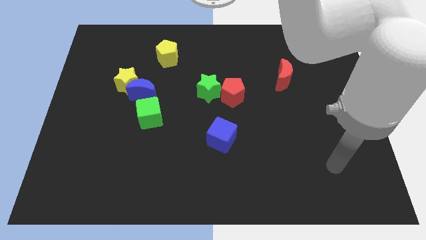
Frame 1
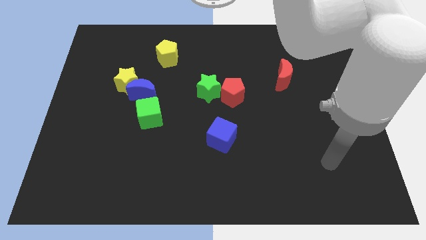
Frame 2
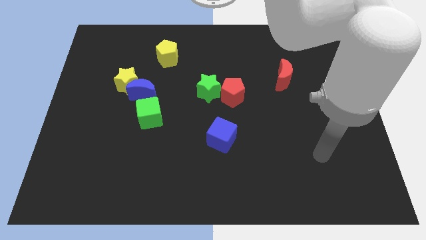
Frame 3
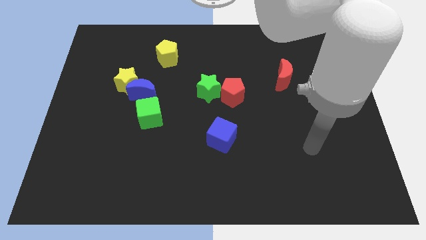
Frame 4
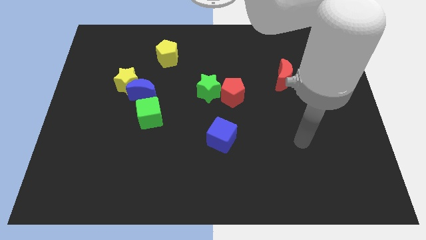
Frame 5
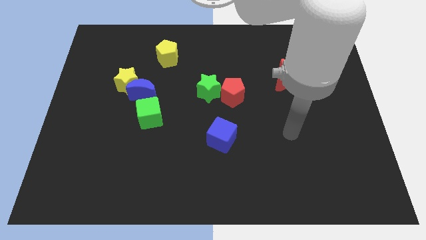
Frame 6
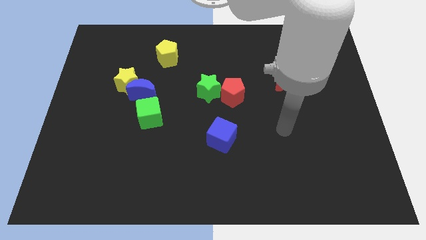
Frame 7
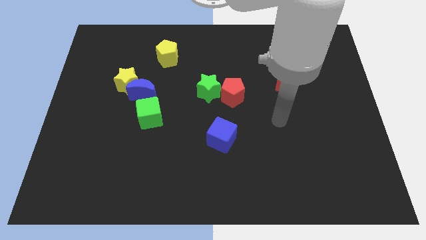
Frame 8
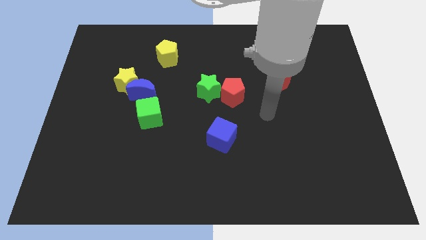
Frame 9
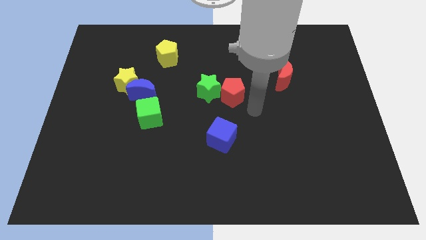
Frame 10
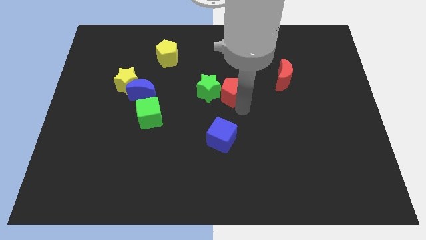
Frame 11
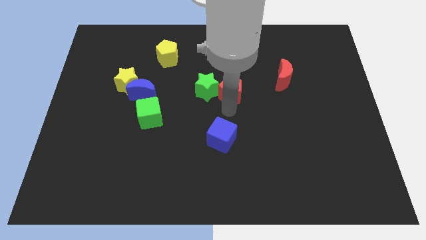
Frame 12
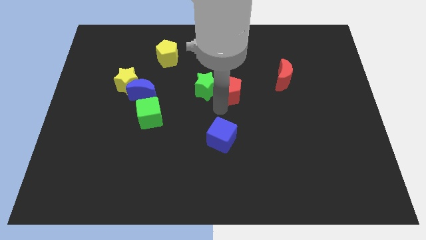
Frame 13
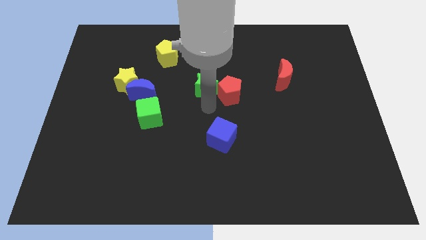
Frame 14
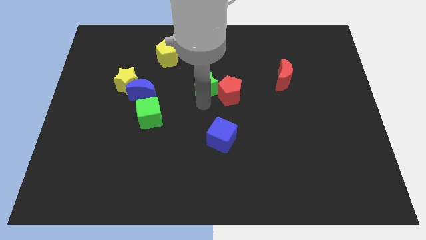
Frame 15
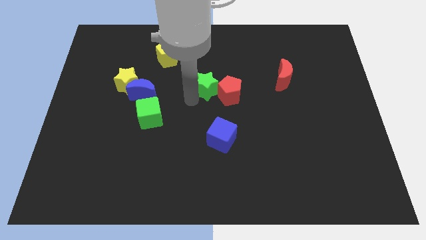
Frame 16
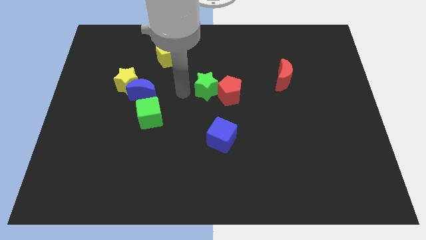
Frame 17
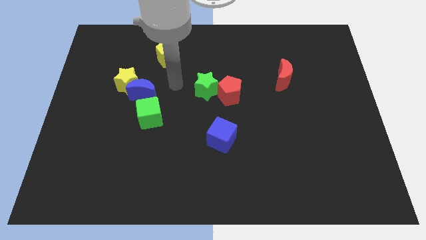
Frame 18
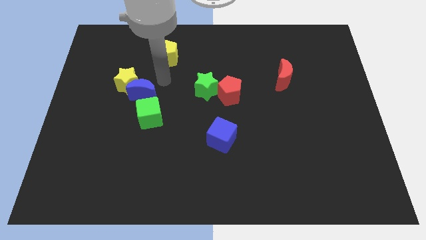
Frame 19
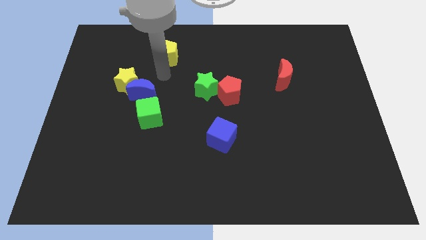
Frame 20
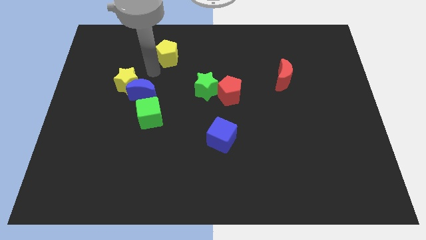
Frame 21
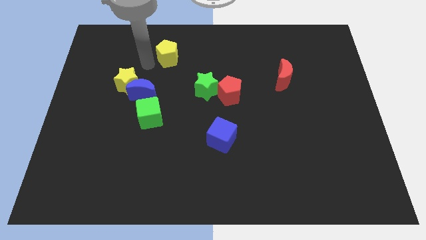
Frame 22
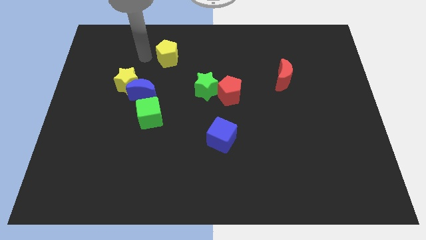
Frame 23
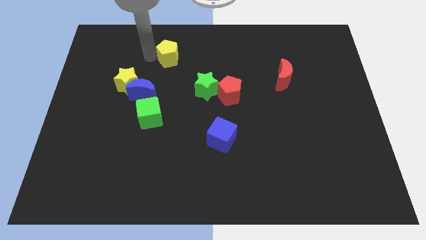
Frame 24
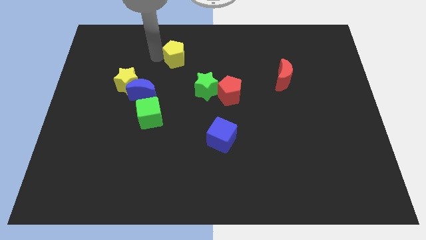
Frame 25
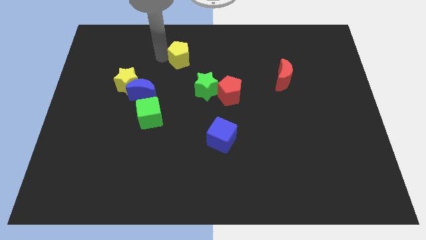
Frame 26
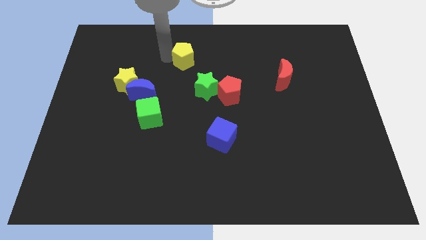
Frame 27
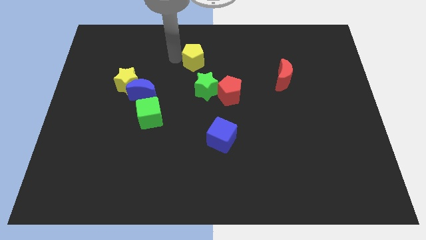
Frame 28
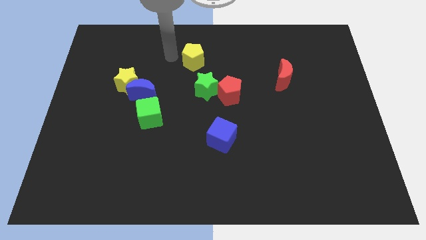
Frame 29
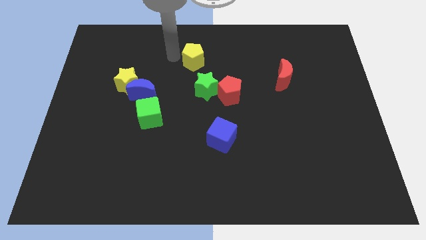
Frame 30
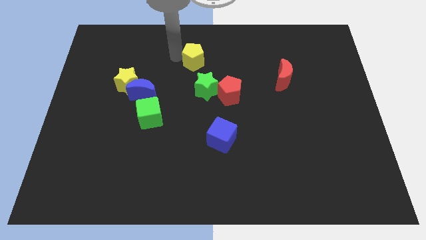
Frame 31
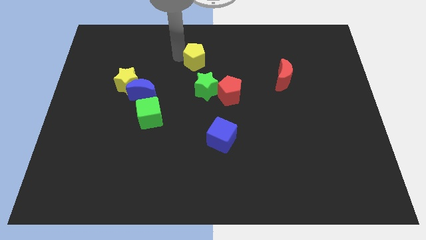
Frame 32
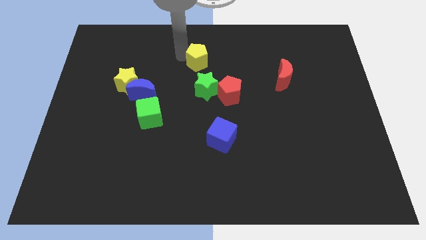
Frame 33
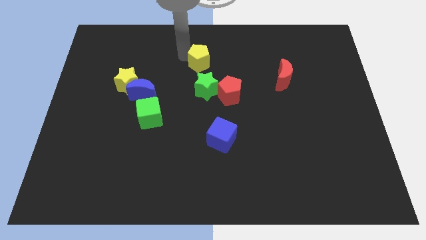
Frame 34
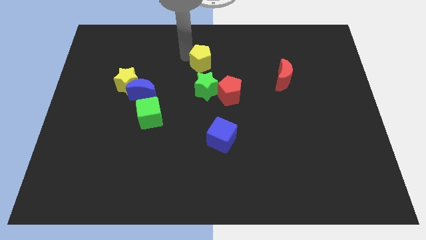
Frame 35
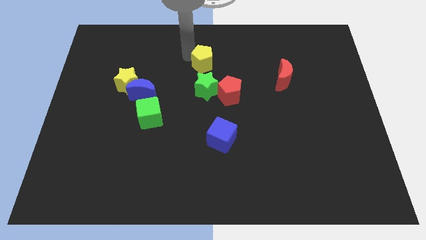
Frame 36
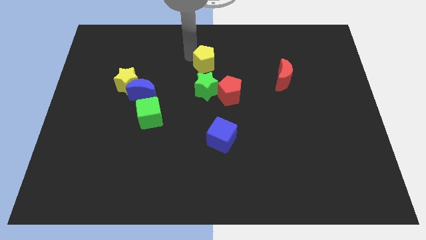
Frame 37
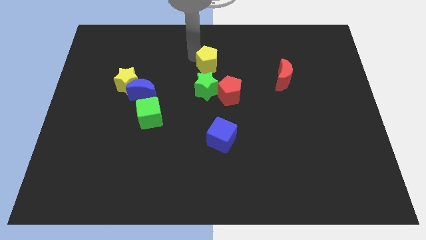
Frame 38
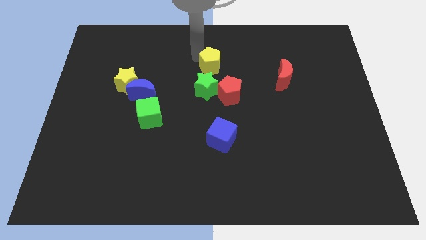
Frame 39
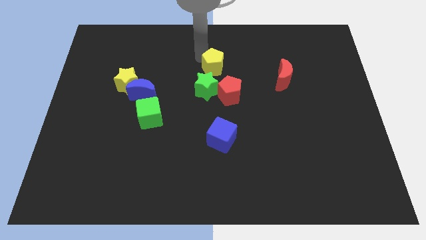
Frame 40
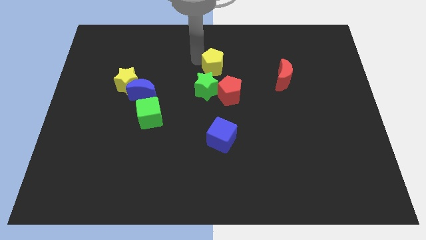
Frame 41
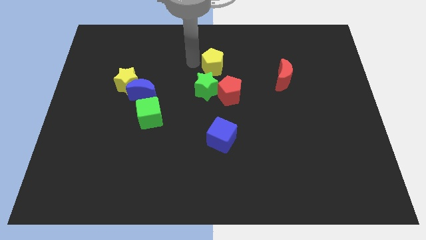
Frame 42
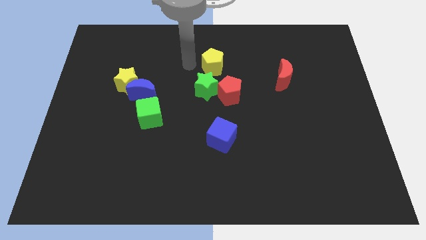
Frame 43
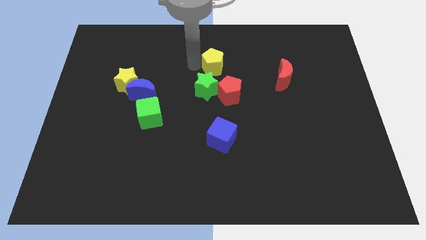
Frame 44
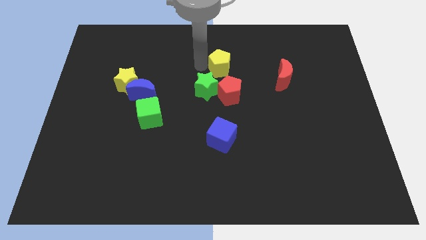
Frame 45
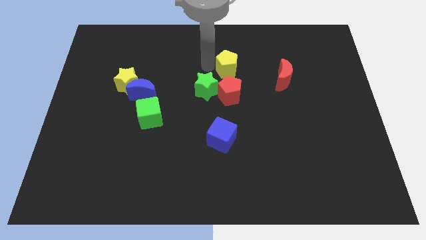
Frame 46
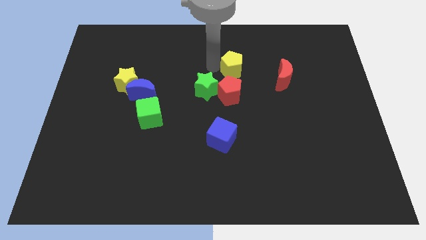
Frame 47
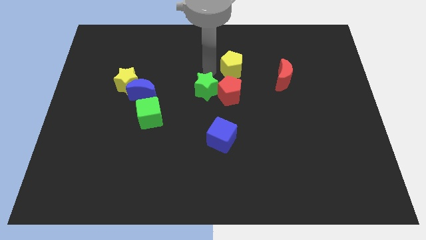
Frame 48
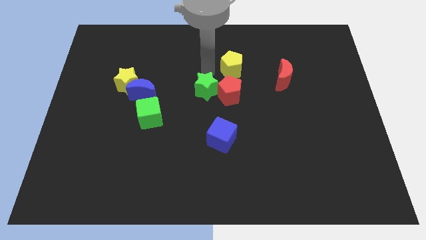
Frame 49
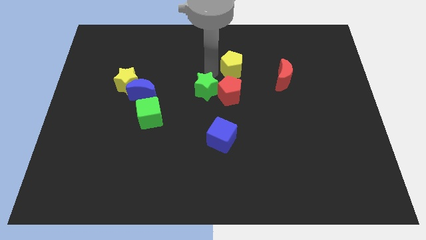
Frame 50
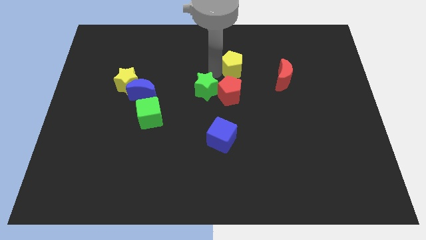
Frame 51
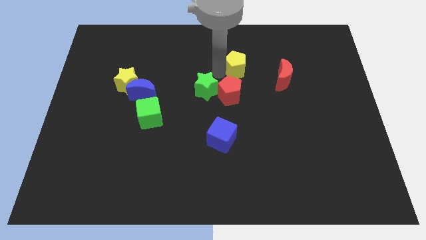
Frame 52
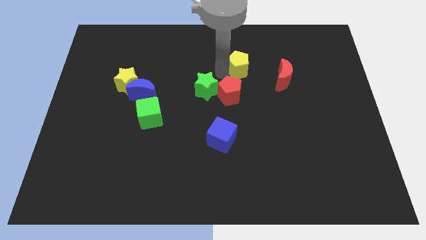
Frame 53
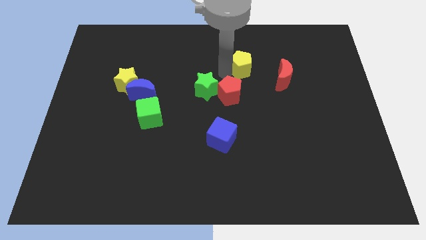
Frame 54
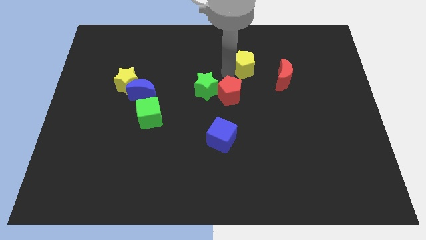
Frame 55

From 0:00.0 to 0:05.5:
push the yellow pentagon diagonally up and to the left of the red moon

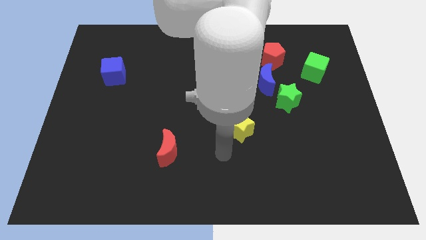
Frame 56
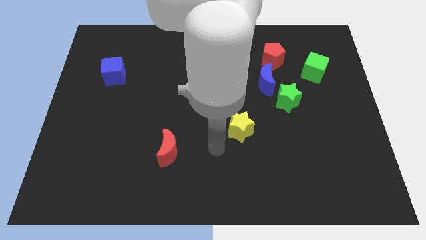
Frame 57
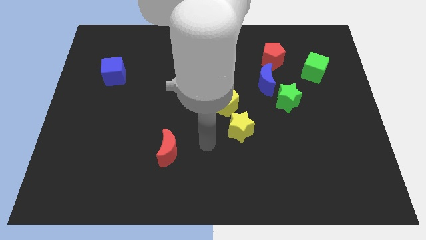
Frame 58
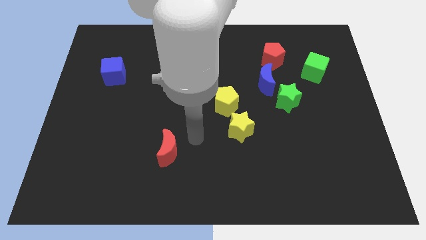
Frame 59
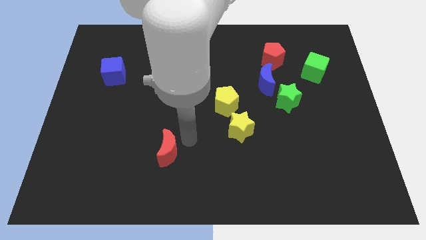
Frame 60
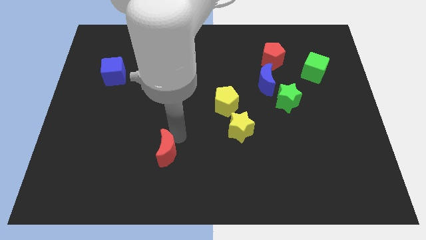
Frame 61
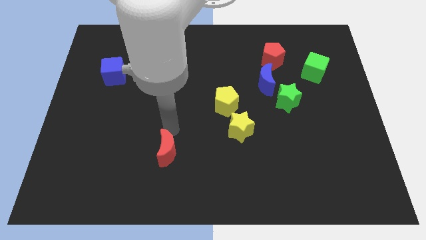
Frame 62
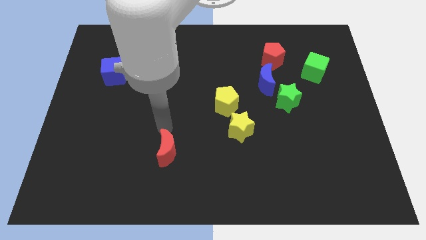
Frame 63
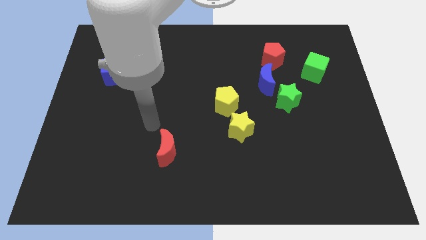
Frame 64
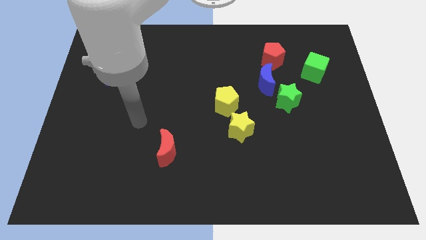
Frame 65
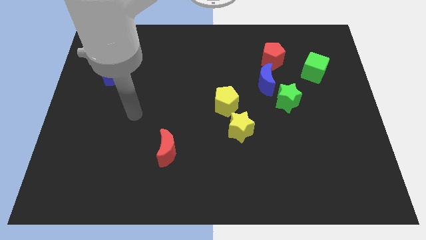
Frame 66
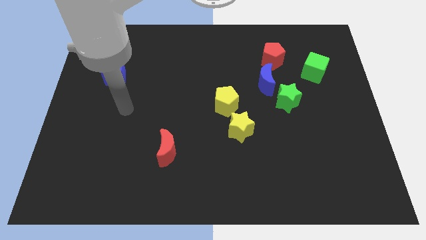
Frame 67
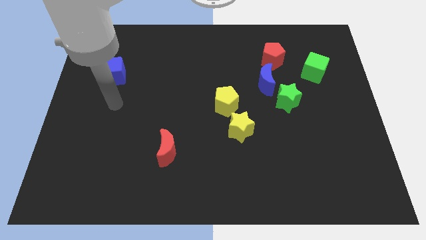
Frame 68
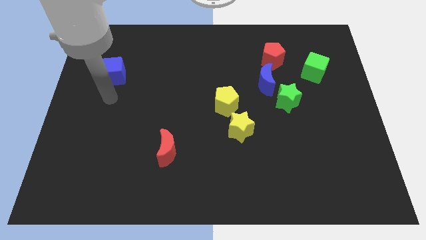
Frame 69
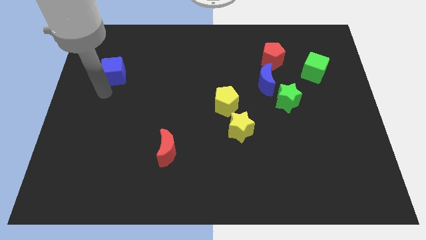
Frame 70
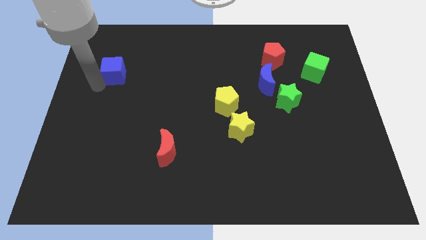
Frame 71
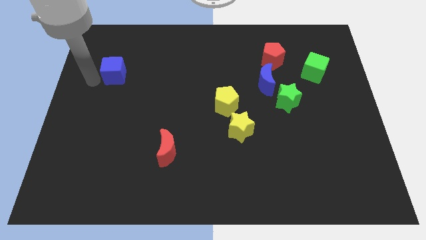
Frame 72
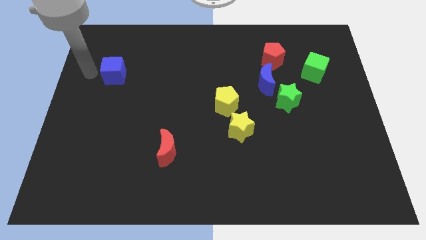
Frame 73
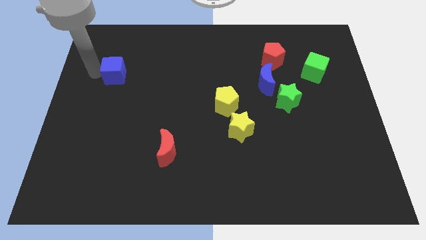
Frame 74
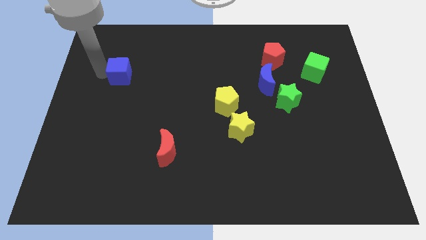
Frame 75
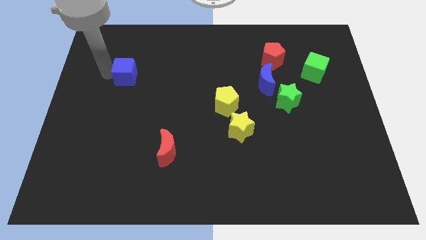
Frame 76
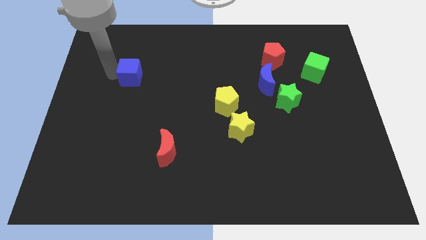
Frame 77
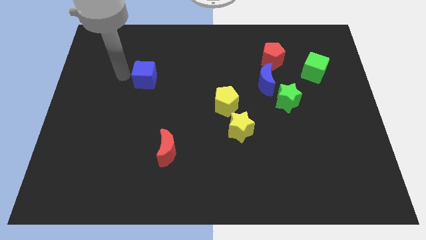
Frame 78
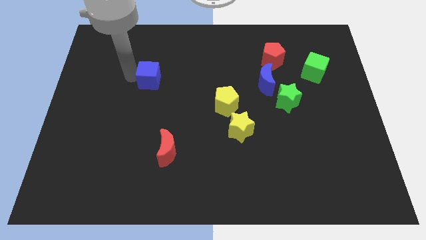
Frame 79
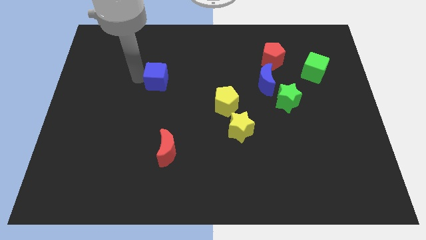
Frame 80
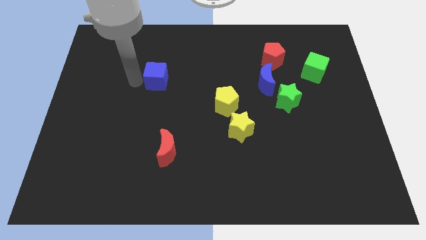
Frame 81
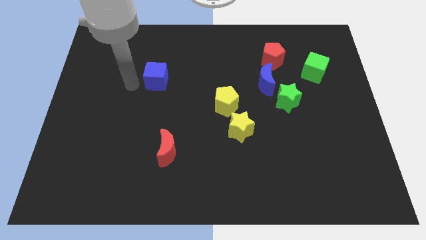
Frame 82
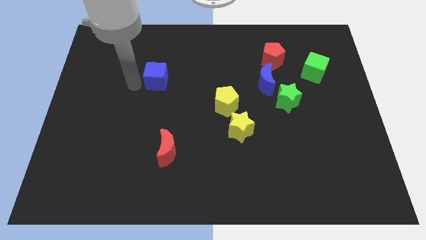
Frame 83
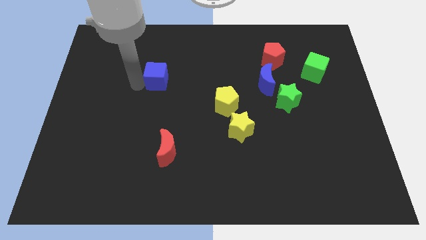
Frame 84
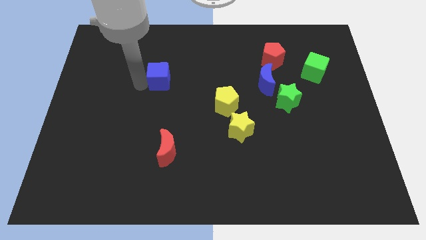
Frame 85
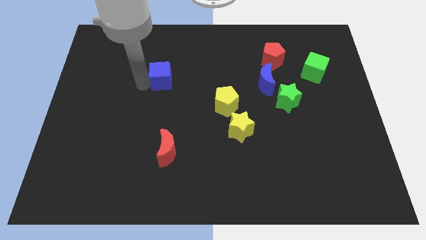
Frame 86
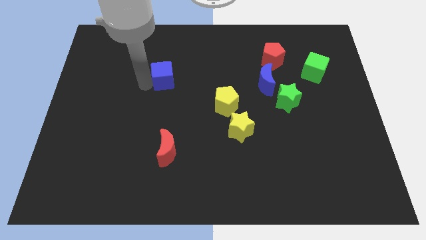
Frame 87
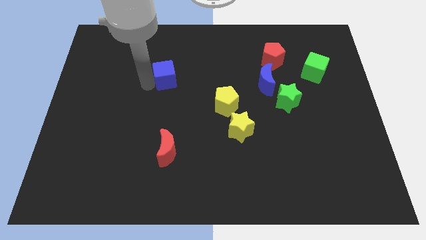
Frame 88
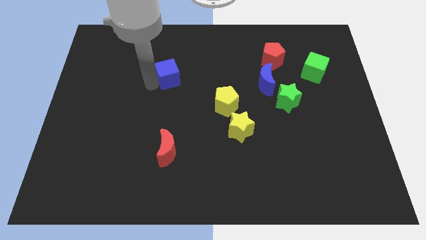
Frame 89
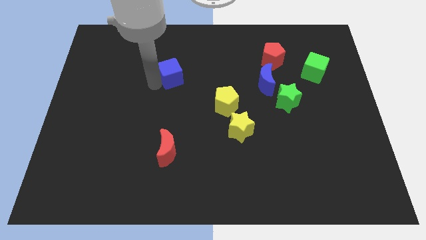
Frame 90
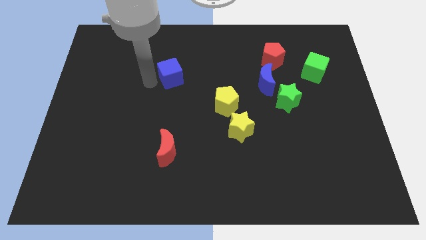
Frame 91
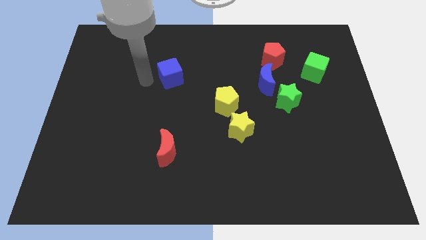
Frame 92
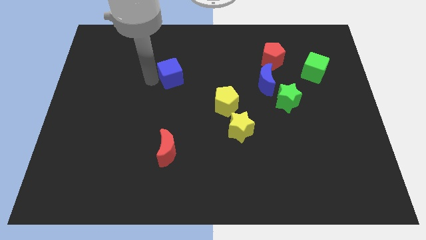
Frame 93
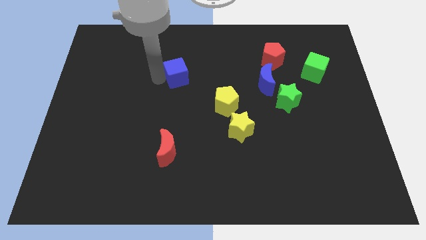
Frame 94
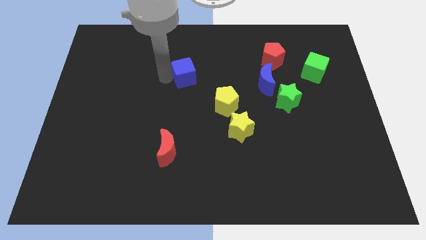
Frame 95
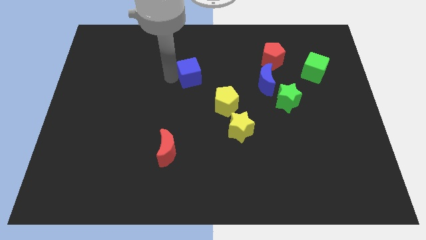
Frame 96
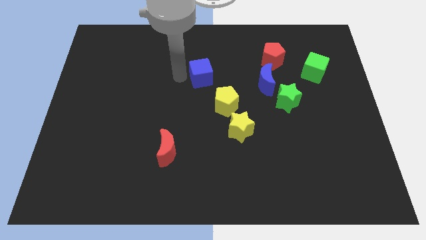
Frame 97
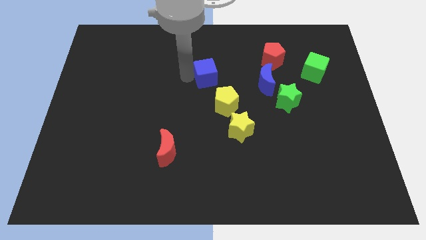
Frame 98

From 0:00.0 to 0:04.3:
slide the blue cube above the yellow pentagon
